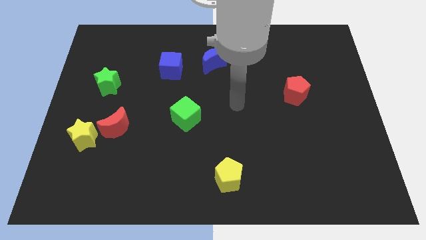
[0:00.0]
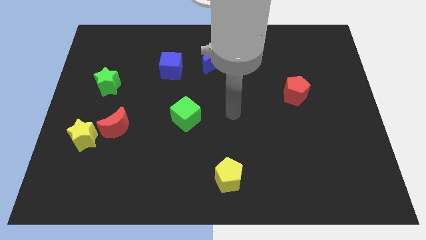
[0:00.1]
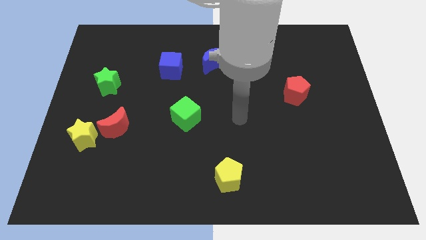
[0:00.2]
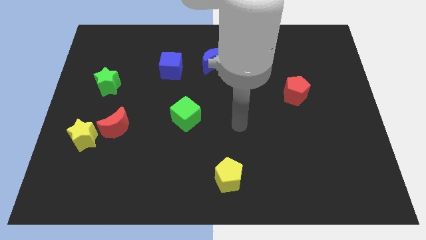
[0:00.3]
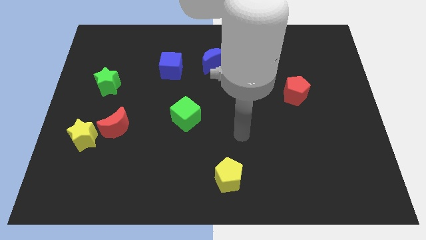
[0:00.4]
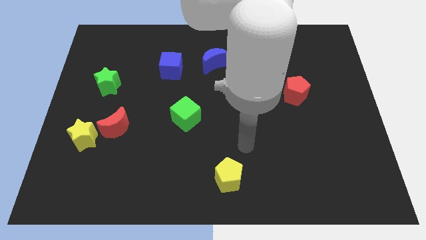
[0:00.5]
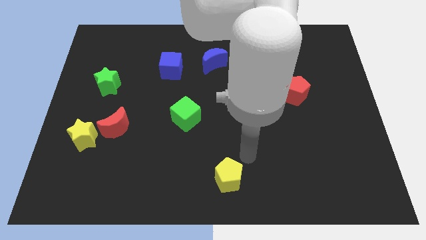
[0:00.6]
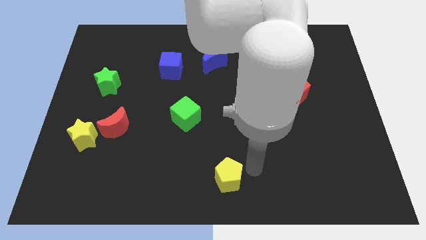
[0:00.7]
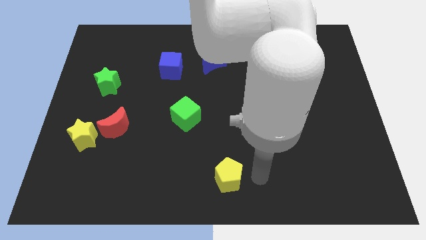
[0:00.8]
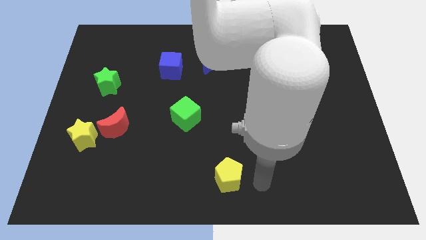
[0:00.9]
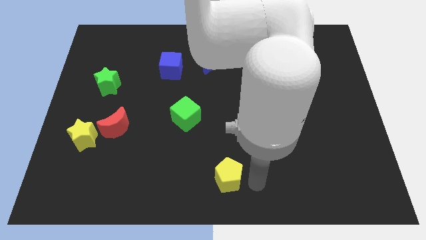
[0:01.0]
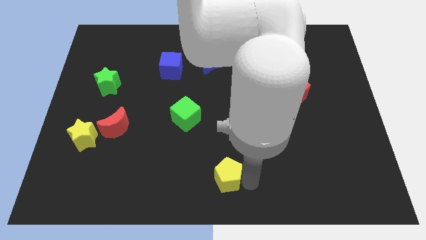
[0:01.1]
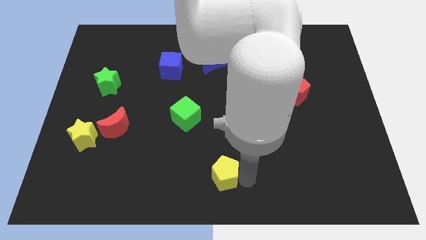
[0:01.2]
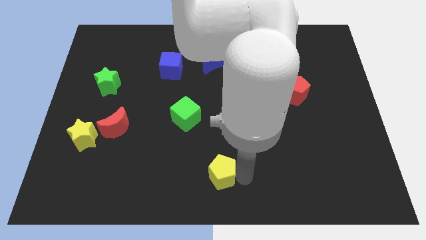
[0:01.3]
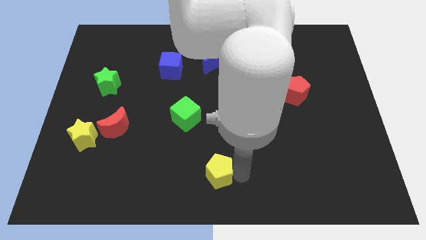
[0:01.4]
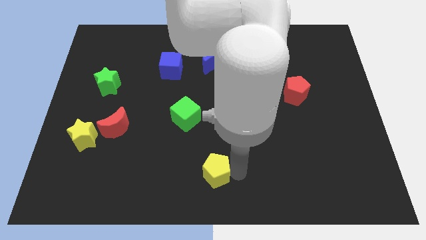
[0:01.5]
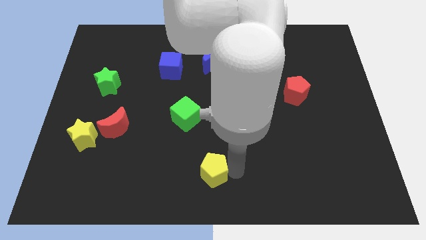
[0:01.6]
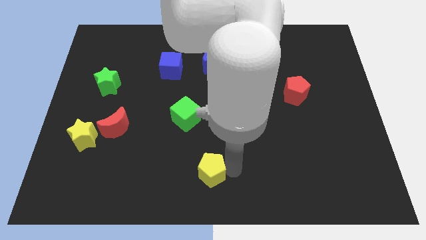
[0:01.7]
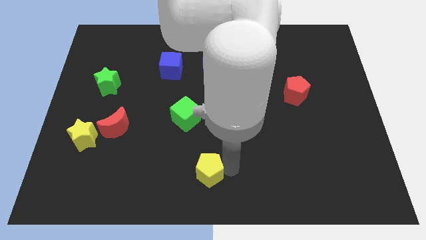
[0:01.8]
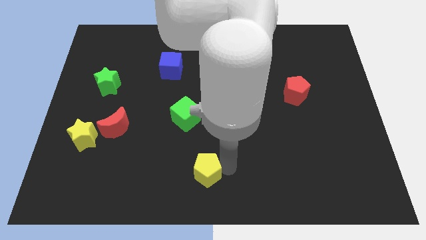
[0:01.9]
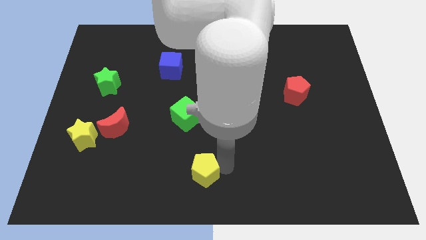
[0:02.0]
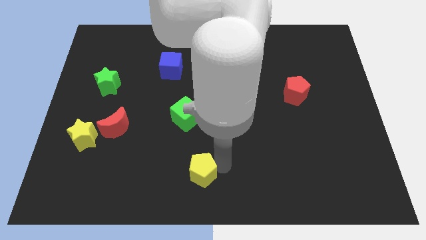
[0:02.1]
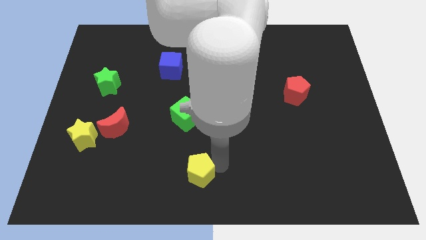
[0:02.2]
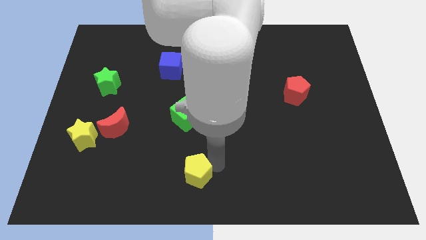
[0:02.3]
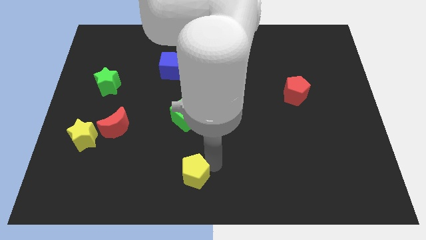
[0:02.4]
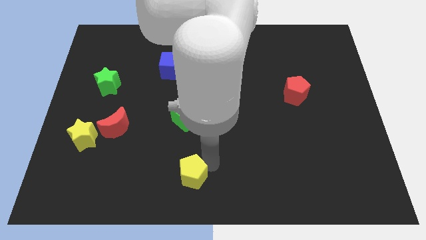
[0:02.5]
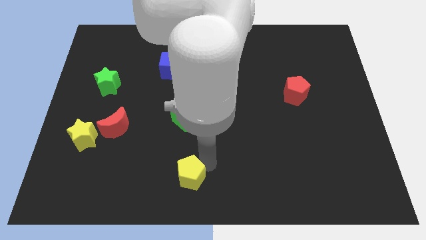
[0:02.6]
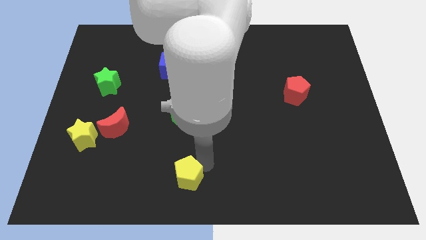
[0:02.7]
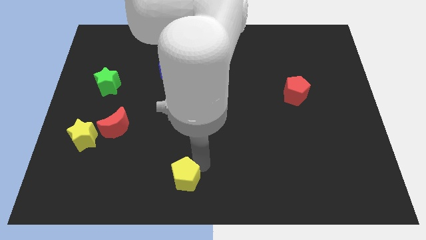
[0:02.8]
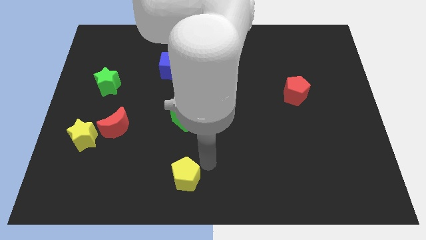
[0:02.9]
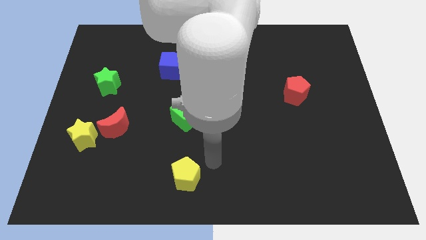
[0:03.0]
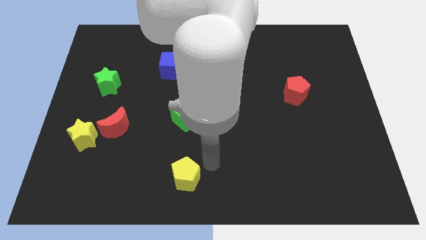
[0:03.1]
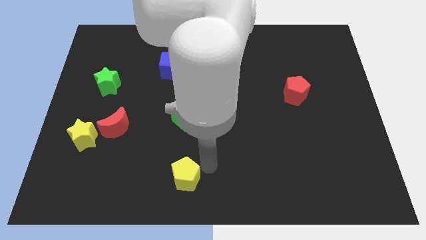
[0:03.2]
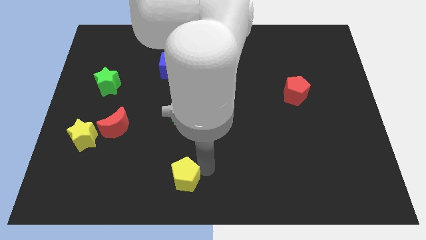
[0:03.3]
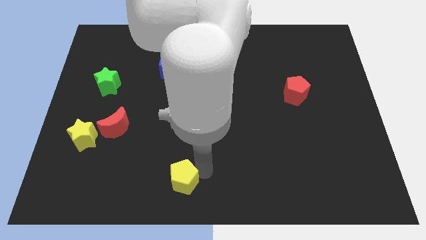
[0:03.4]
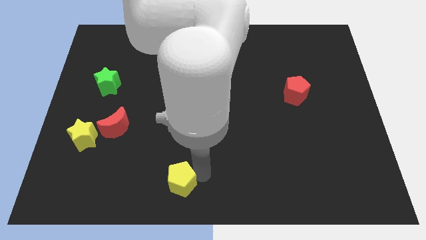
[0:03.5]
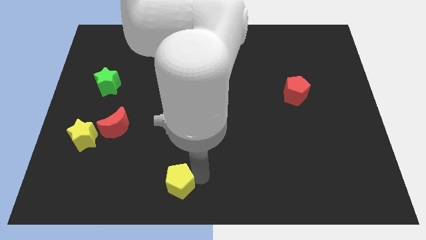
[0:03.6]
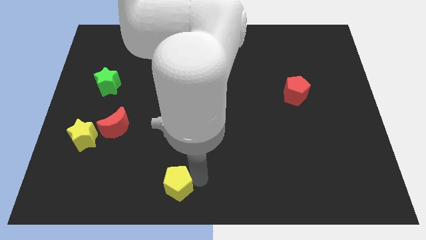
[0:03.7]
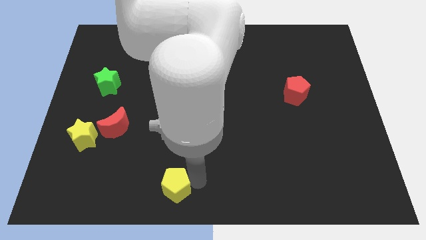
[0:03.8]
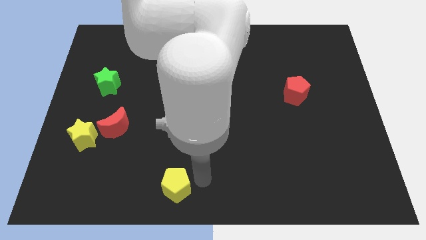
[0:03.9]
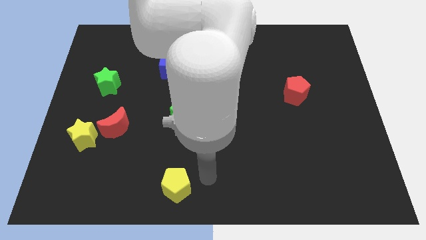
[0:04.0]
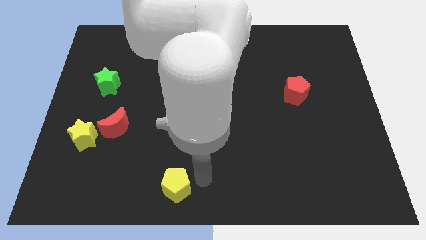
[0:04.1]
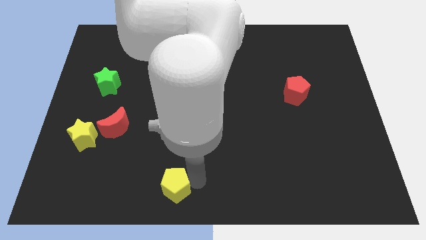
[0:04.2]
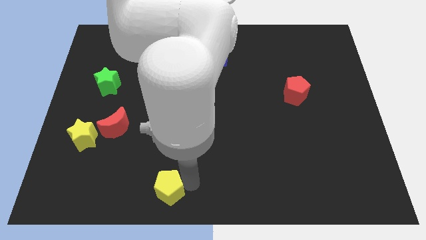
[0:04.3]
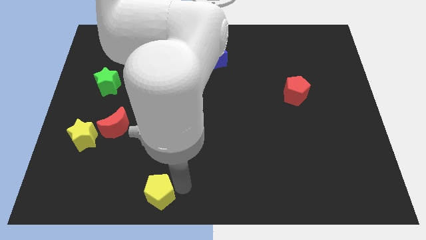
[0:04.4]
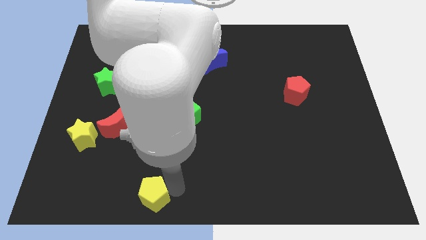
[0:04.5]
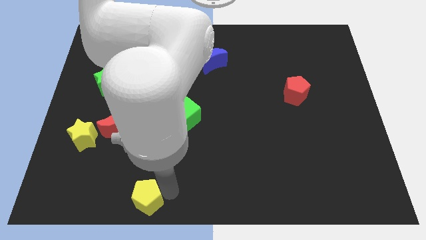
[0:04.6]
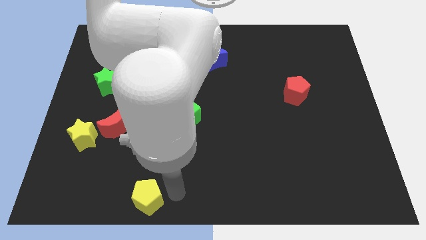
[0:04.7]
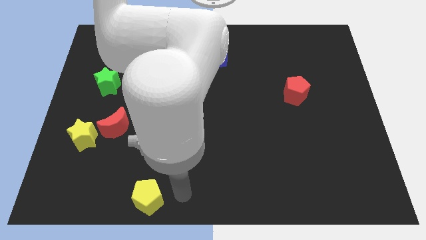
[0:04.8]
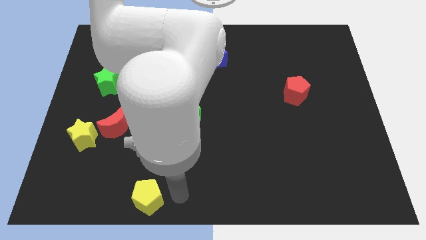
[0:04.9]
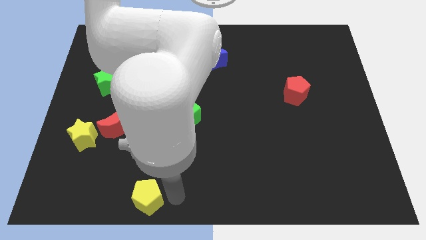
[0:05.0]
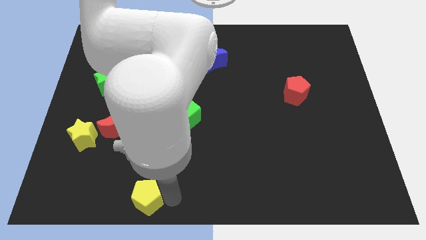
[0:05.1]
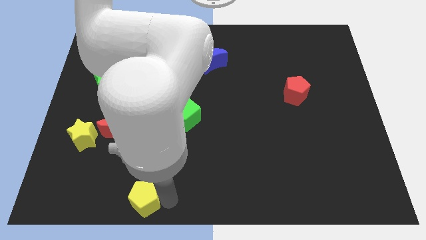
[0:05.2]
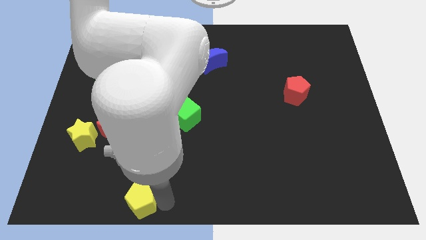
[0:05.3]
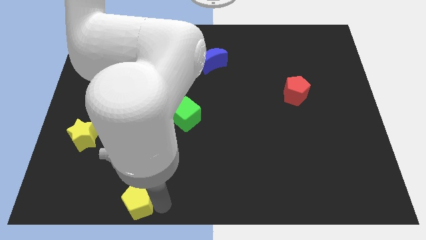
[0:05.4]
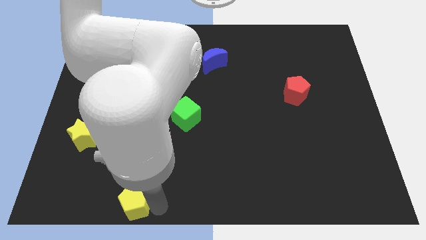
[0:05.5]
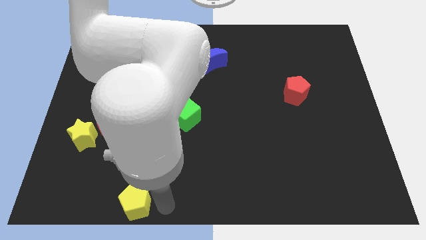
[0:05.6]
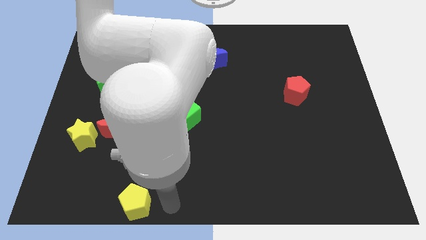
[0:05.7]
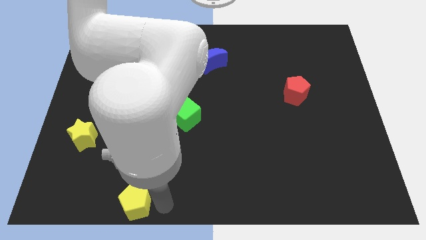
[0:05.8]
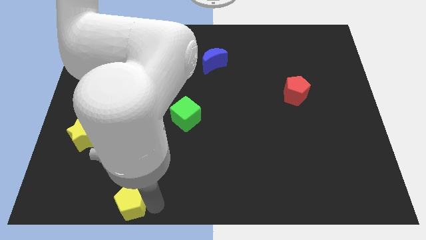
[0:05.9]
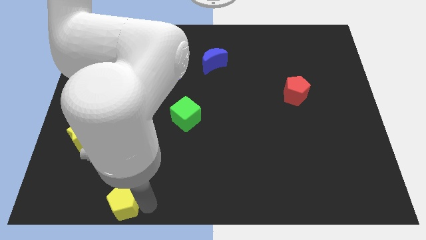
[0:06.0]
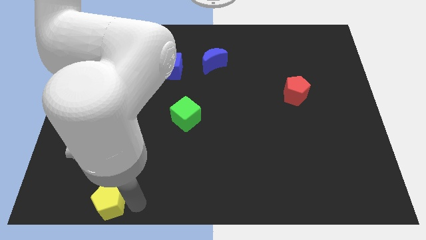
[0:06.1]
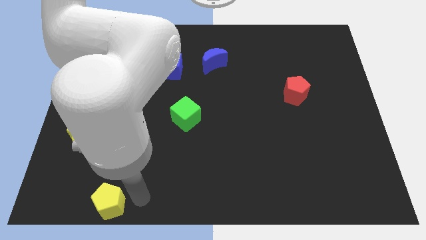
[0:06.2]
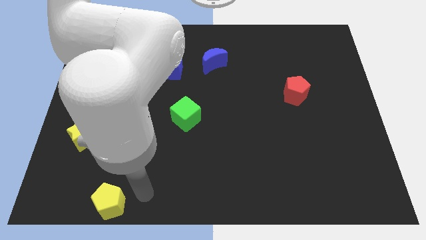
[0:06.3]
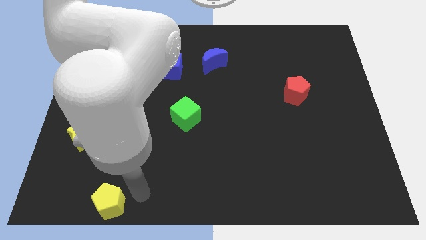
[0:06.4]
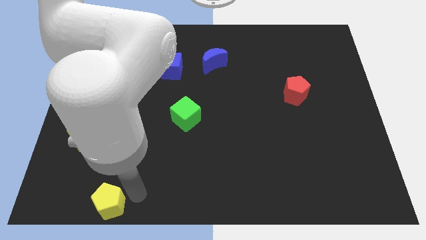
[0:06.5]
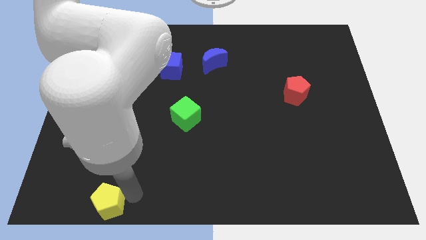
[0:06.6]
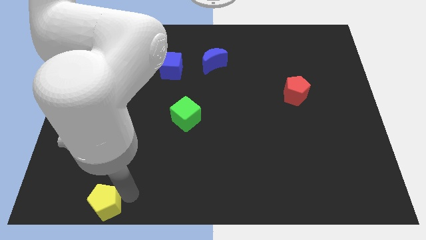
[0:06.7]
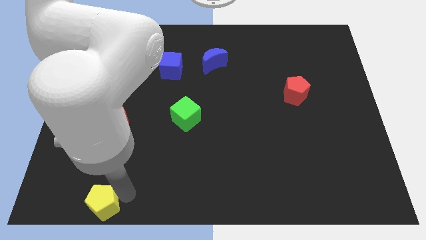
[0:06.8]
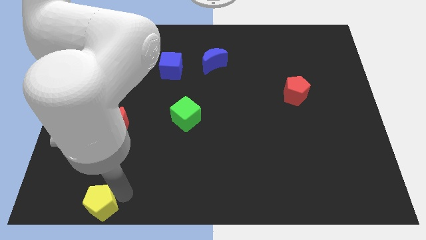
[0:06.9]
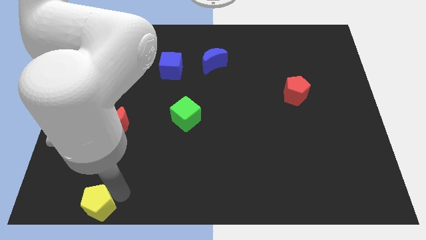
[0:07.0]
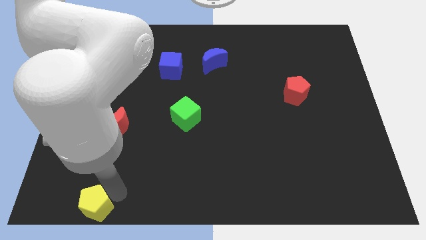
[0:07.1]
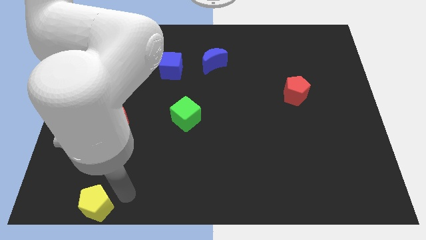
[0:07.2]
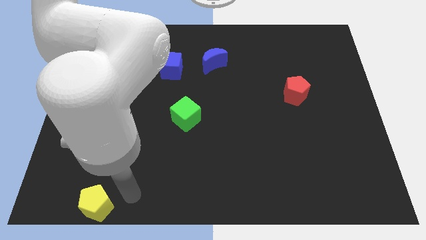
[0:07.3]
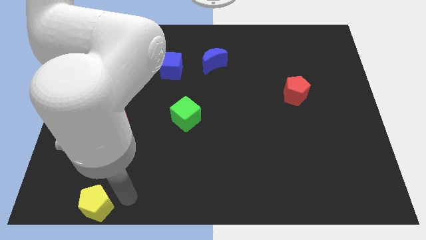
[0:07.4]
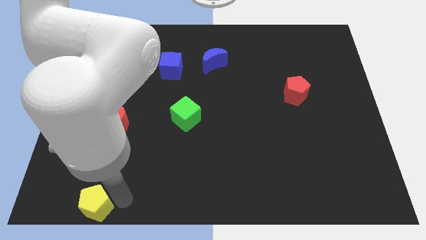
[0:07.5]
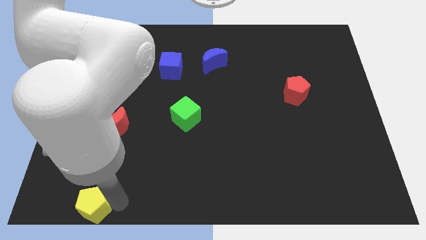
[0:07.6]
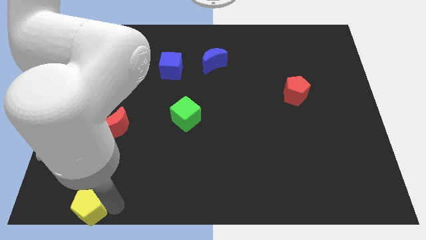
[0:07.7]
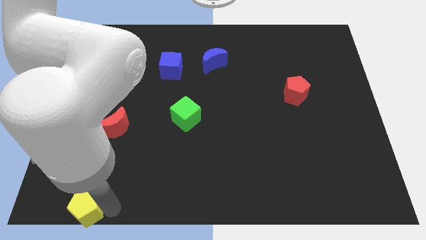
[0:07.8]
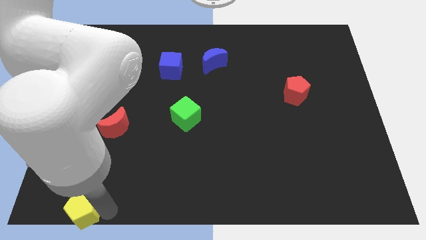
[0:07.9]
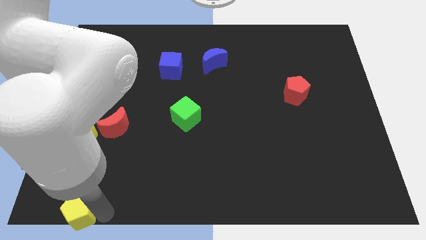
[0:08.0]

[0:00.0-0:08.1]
push the yellow pentagon to the bottom left corner
